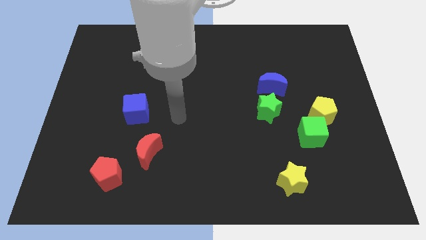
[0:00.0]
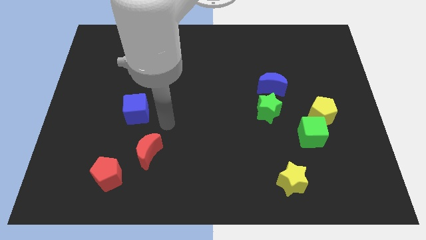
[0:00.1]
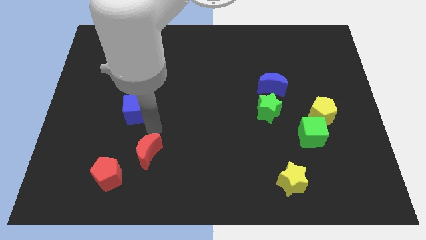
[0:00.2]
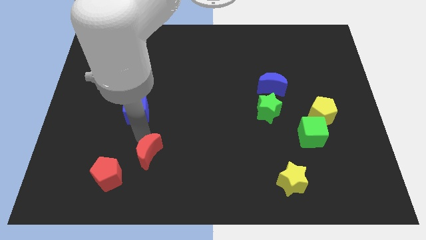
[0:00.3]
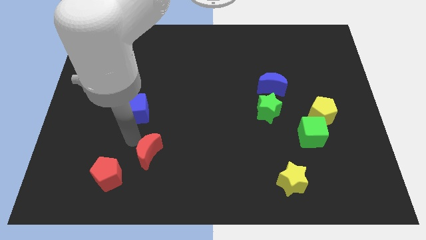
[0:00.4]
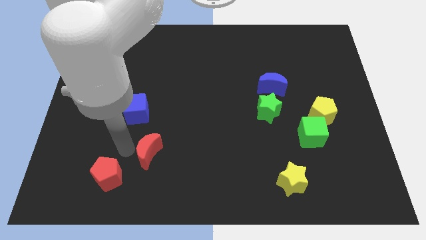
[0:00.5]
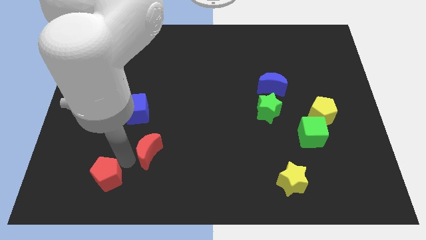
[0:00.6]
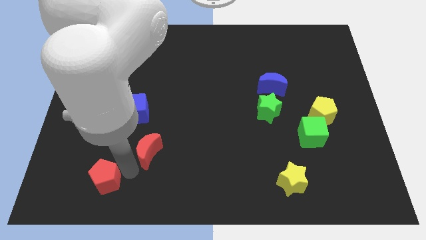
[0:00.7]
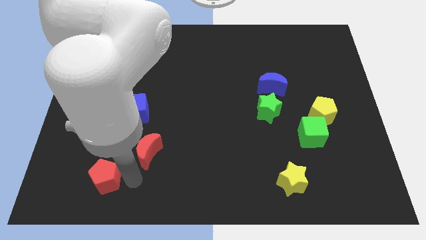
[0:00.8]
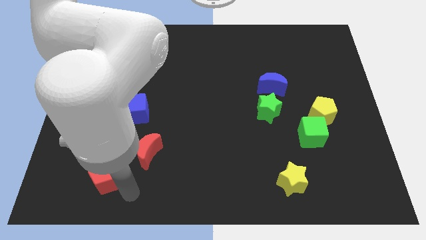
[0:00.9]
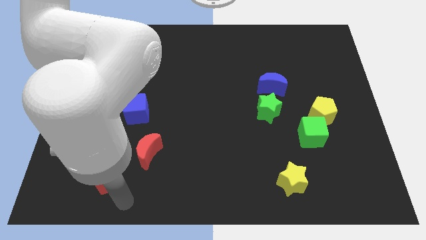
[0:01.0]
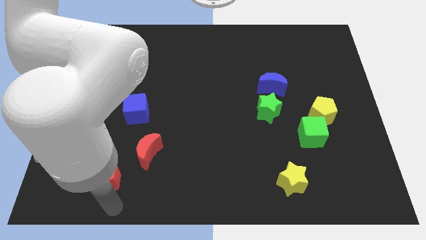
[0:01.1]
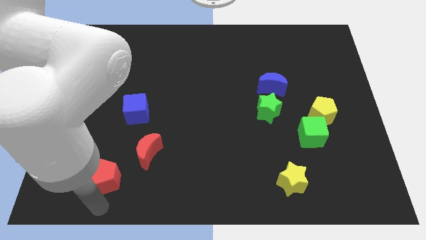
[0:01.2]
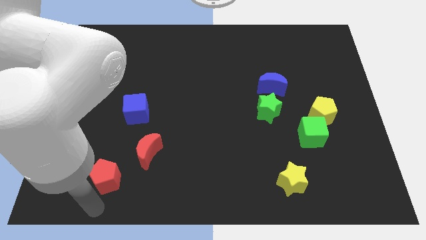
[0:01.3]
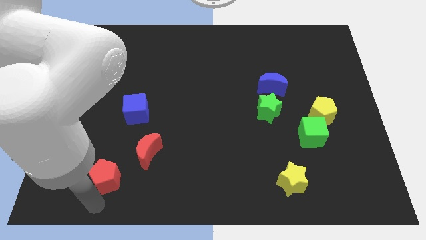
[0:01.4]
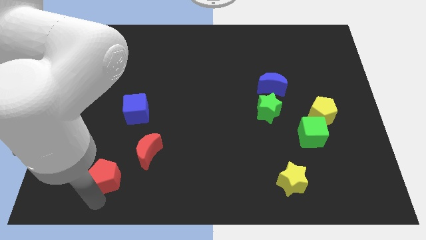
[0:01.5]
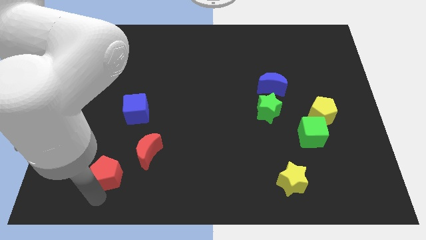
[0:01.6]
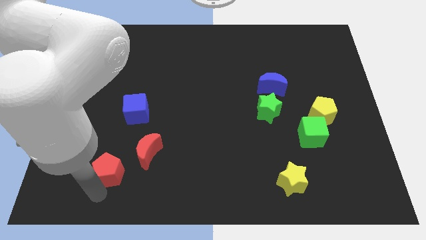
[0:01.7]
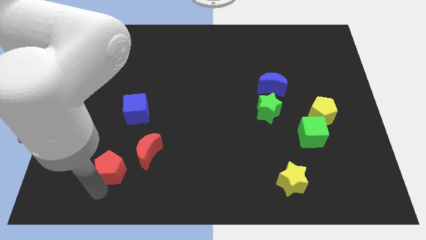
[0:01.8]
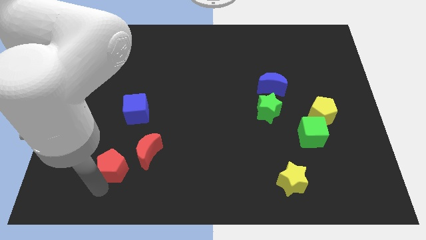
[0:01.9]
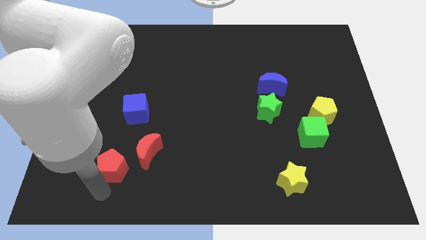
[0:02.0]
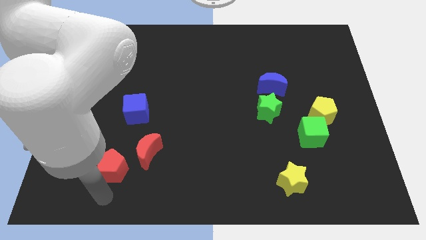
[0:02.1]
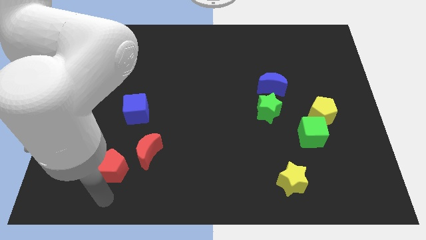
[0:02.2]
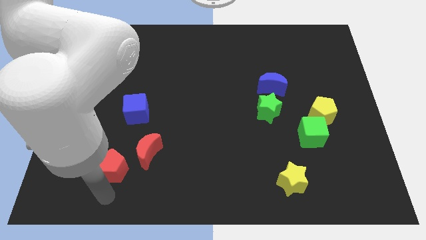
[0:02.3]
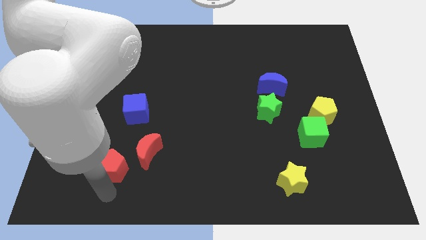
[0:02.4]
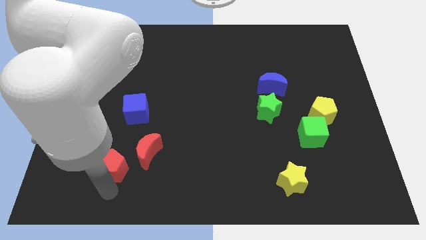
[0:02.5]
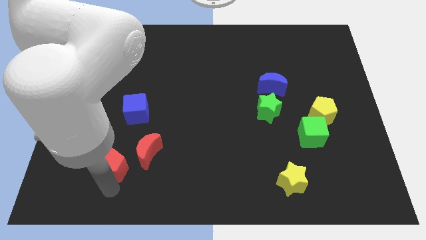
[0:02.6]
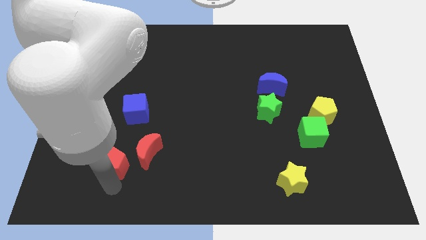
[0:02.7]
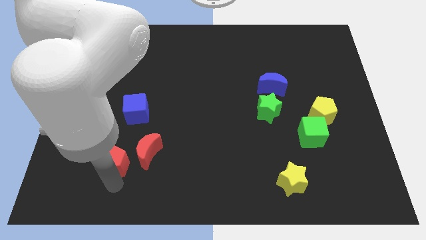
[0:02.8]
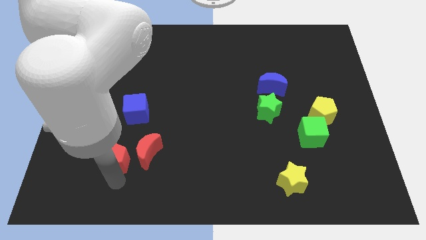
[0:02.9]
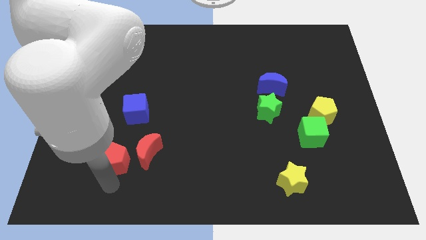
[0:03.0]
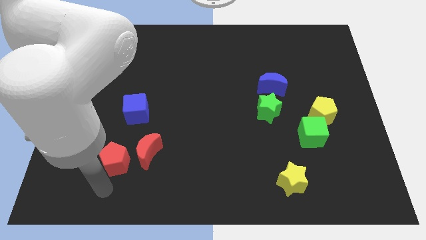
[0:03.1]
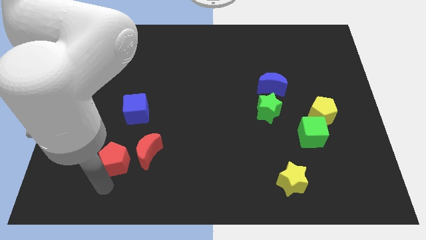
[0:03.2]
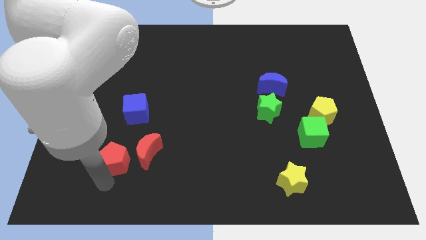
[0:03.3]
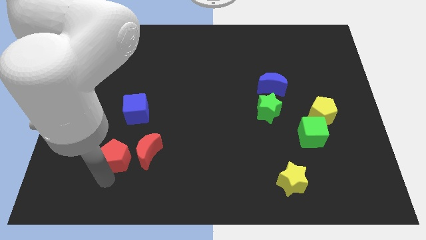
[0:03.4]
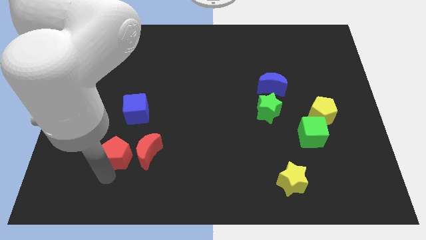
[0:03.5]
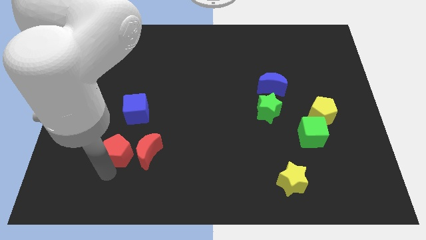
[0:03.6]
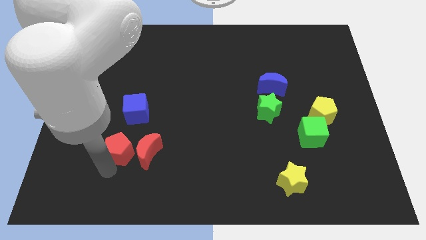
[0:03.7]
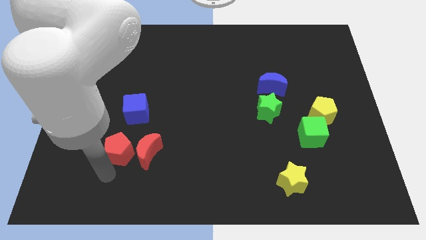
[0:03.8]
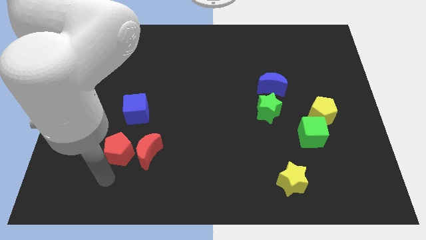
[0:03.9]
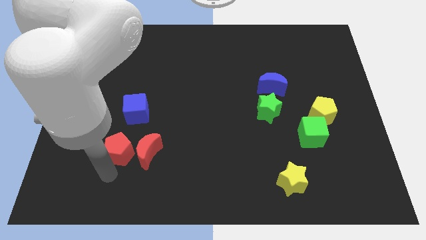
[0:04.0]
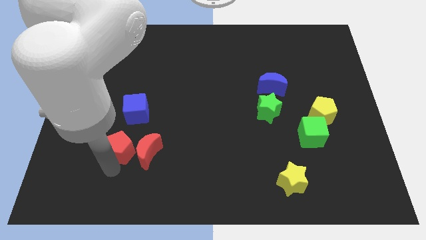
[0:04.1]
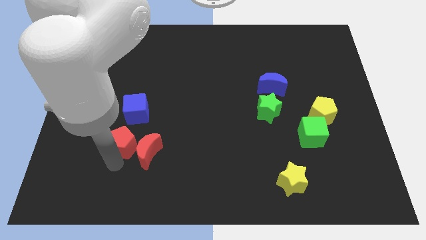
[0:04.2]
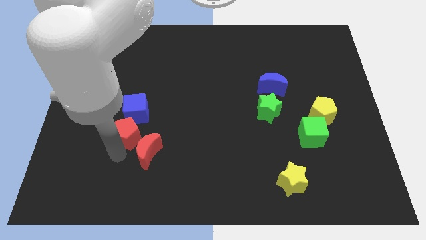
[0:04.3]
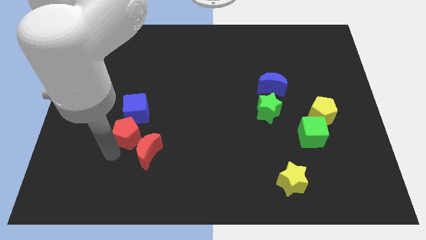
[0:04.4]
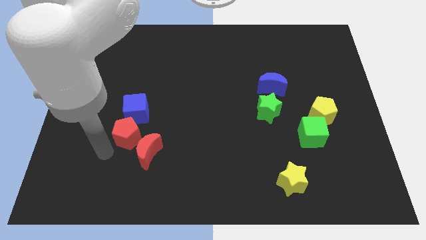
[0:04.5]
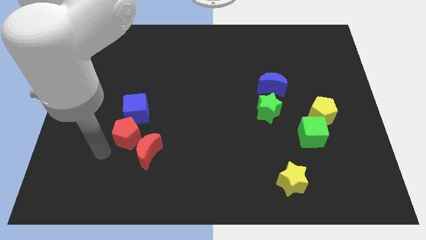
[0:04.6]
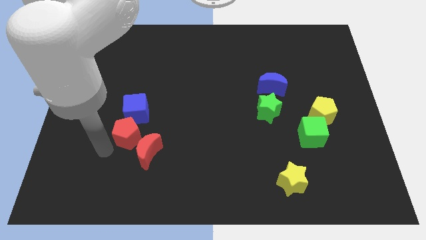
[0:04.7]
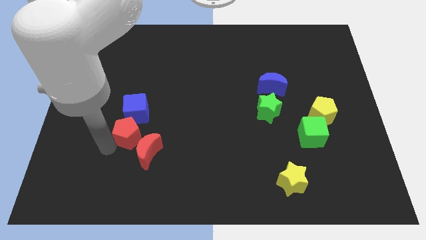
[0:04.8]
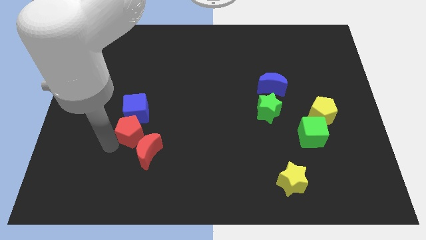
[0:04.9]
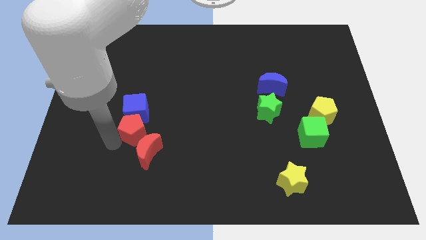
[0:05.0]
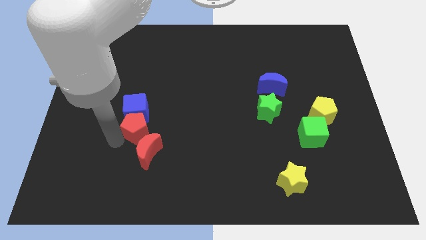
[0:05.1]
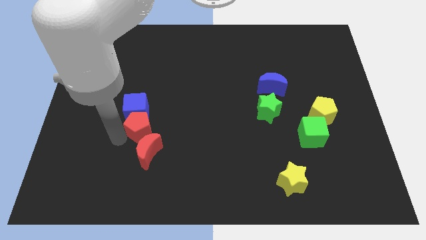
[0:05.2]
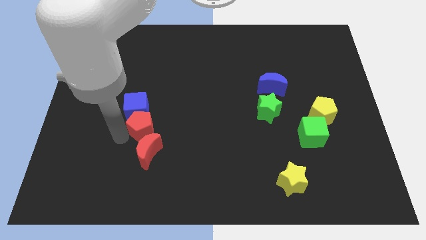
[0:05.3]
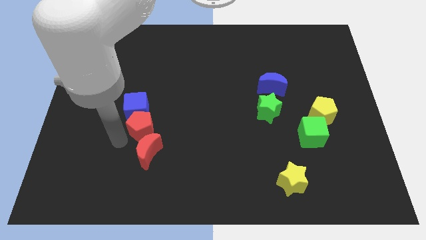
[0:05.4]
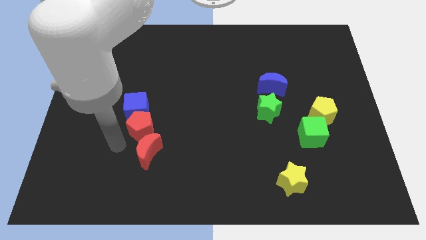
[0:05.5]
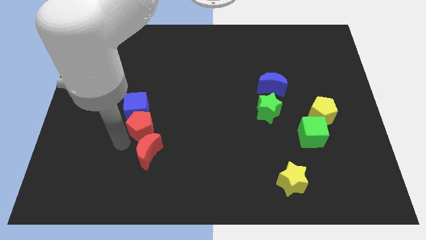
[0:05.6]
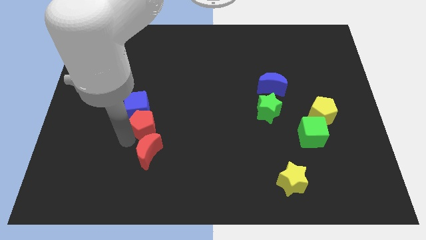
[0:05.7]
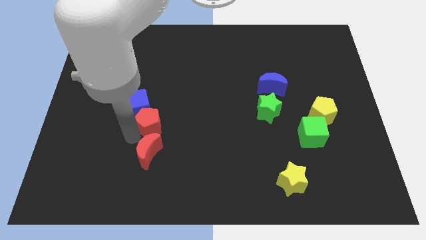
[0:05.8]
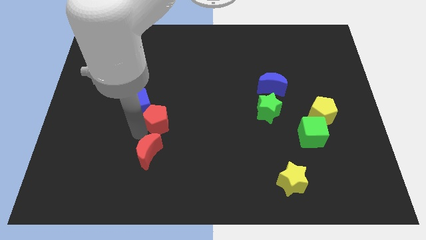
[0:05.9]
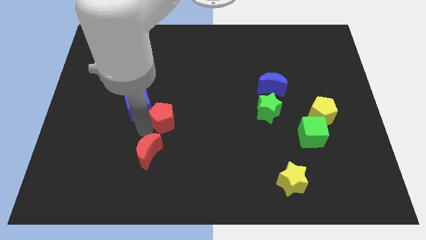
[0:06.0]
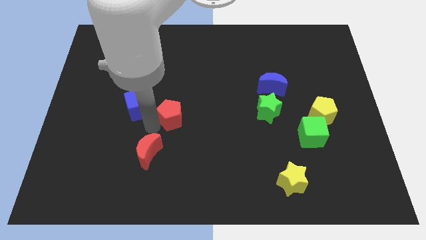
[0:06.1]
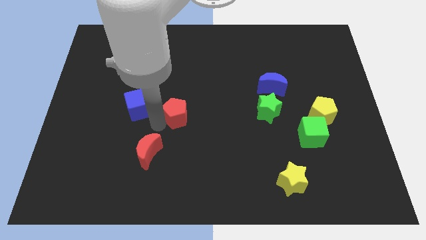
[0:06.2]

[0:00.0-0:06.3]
move the red pentagon upwards and right

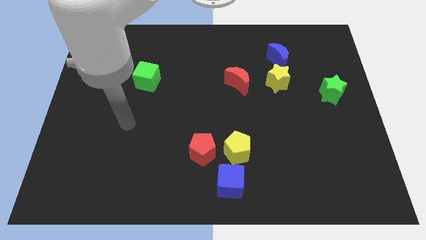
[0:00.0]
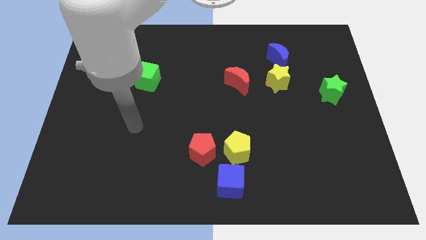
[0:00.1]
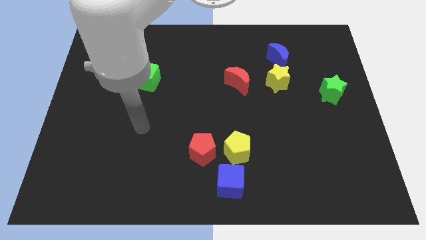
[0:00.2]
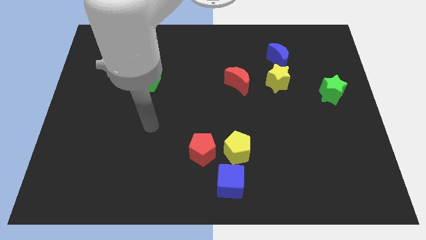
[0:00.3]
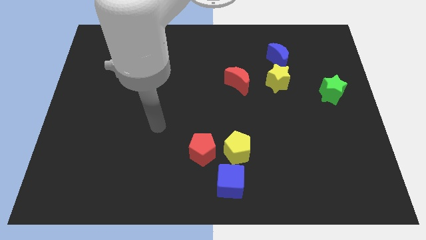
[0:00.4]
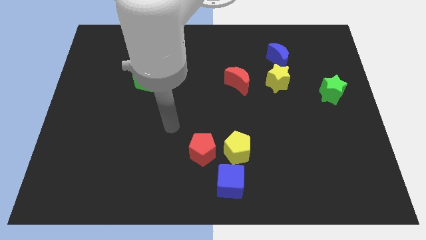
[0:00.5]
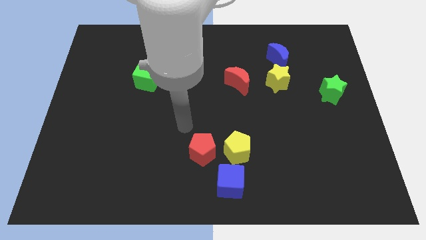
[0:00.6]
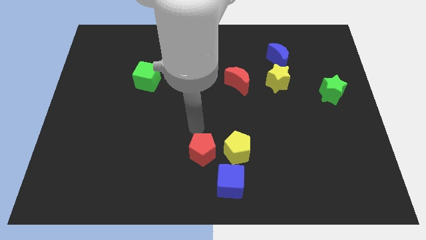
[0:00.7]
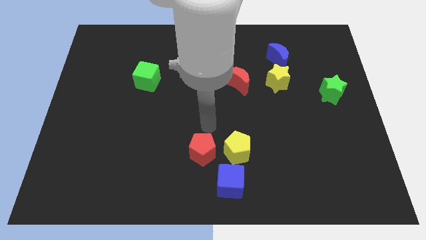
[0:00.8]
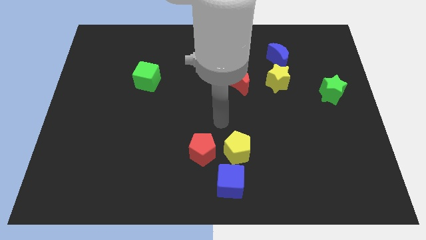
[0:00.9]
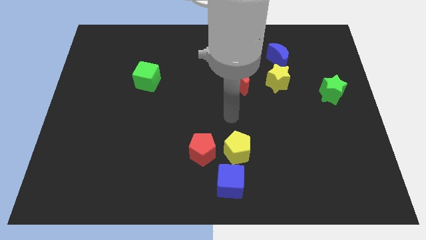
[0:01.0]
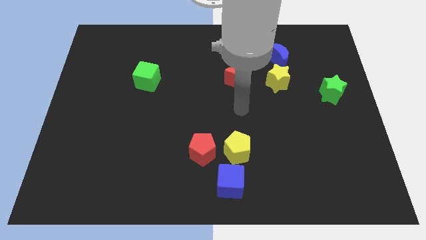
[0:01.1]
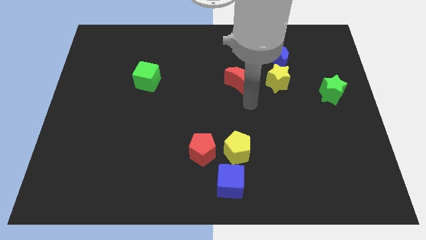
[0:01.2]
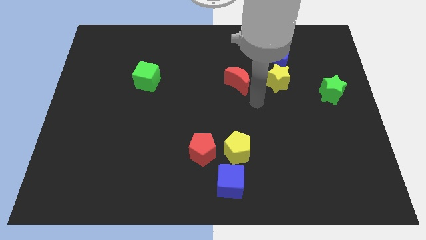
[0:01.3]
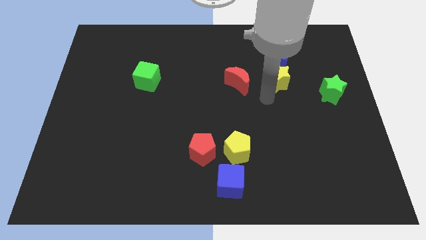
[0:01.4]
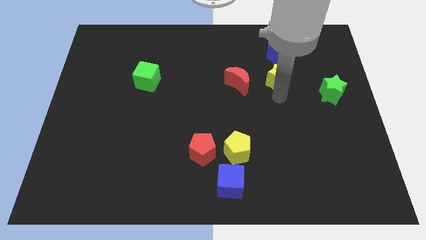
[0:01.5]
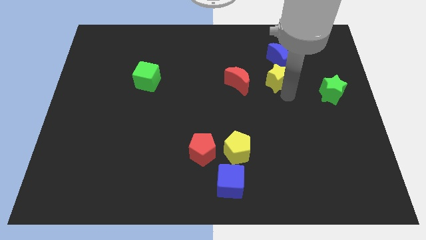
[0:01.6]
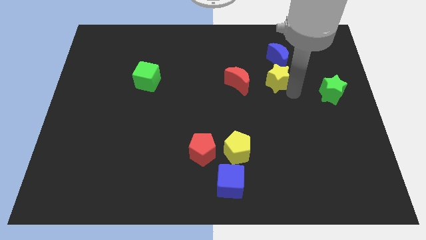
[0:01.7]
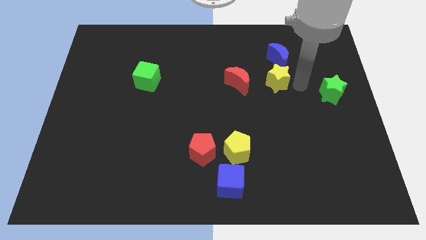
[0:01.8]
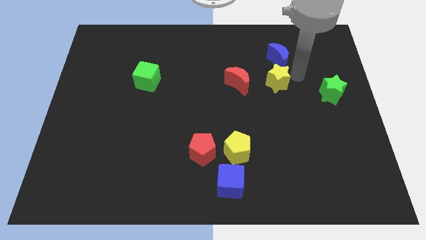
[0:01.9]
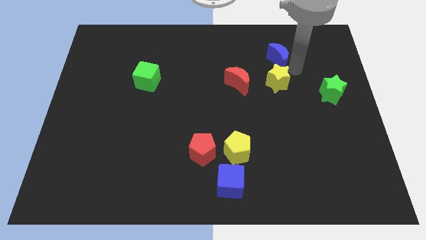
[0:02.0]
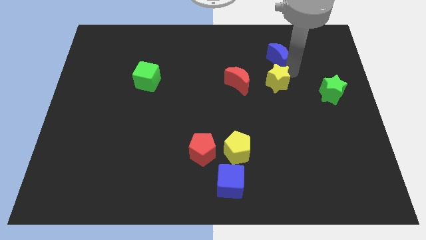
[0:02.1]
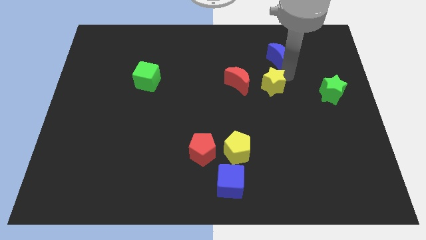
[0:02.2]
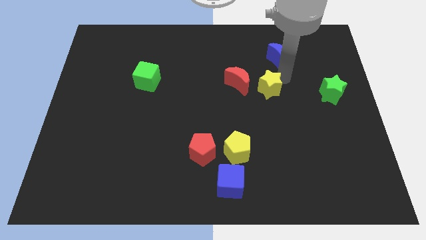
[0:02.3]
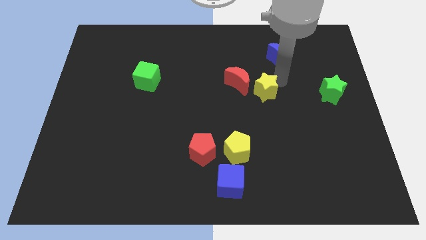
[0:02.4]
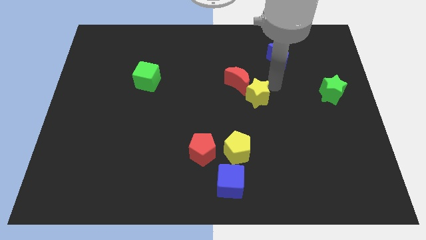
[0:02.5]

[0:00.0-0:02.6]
push the yellow star downwards and then left slightly
